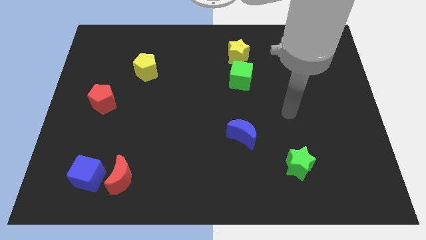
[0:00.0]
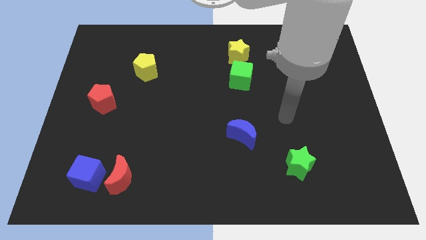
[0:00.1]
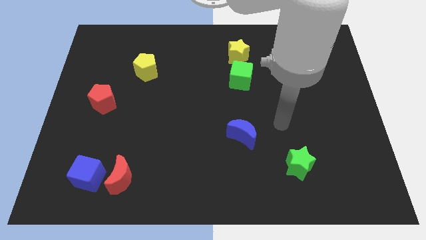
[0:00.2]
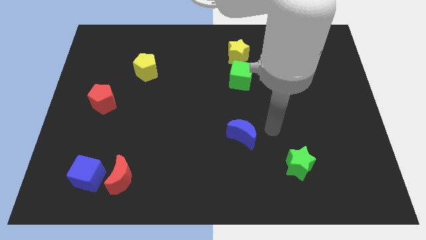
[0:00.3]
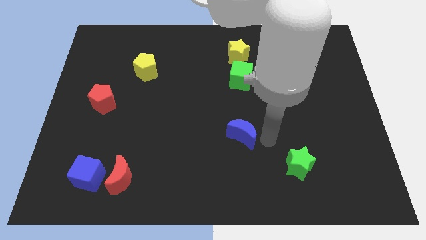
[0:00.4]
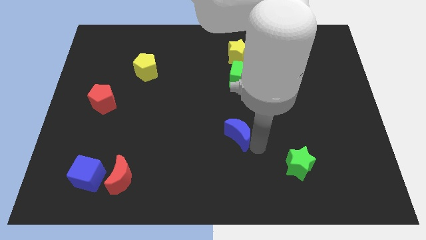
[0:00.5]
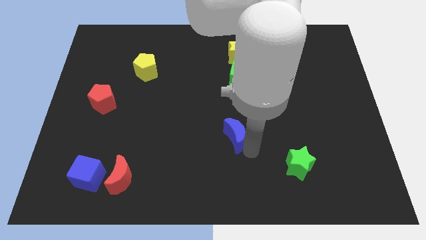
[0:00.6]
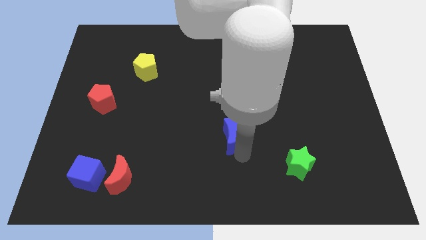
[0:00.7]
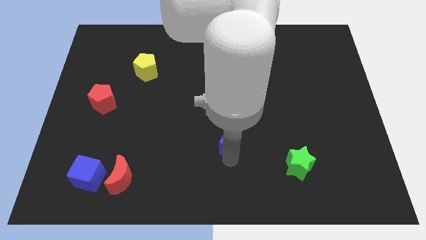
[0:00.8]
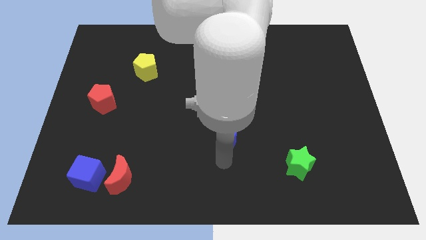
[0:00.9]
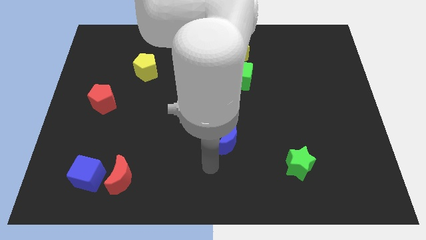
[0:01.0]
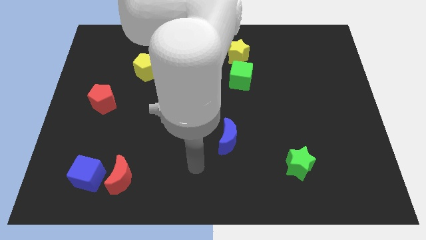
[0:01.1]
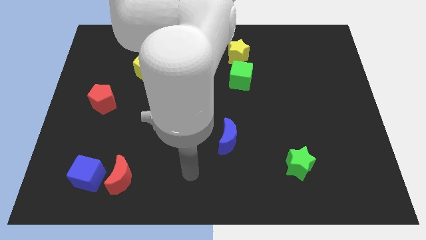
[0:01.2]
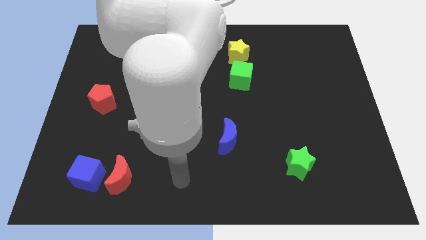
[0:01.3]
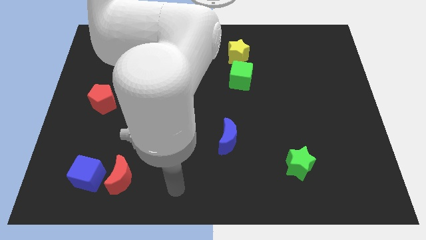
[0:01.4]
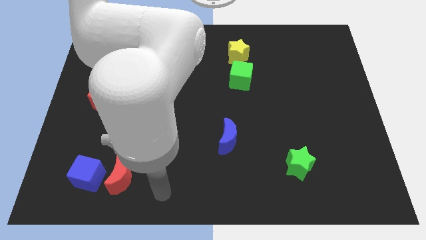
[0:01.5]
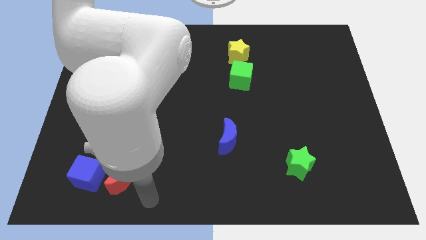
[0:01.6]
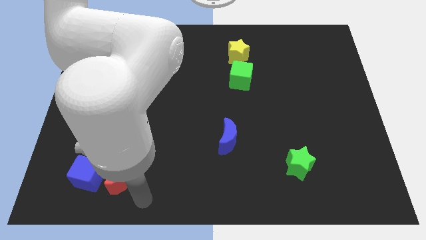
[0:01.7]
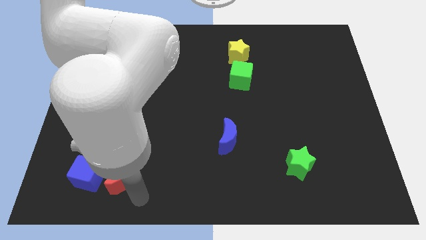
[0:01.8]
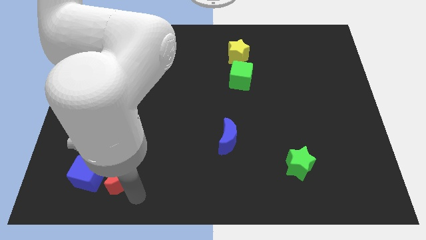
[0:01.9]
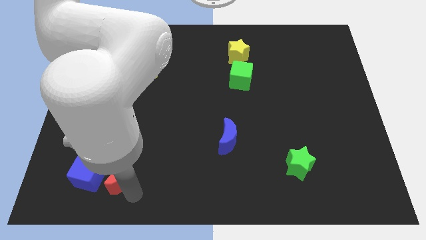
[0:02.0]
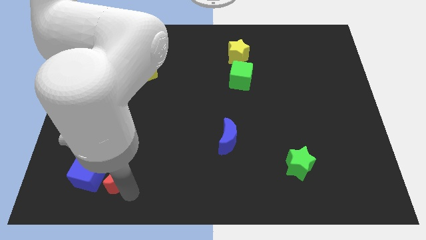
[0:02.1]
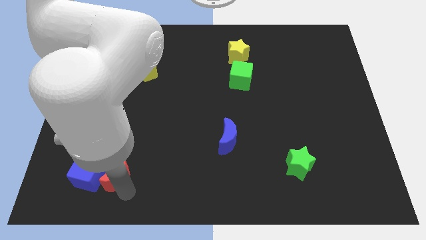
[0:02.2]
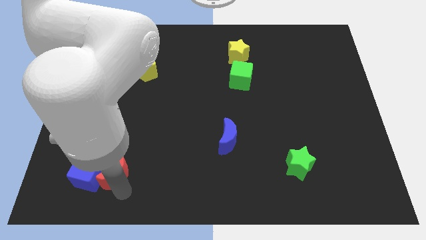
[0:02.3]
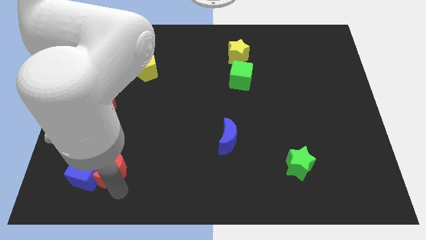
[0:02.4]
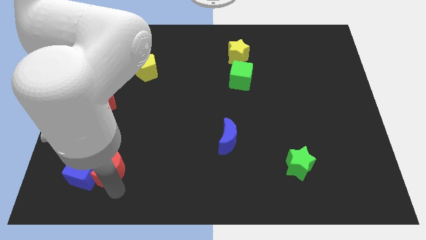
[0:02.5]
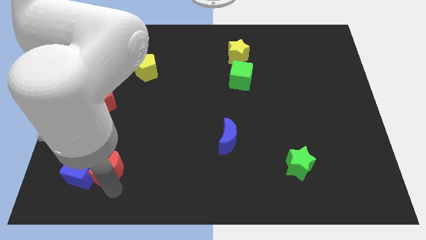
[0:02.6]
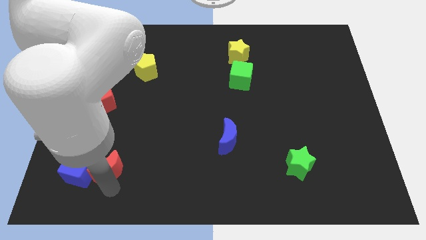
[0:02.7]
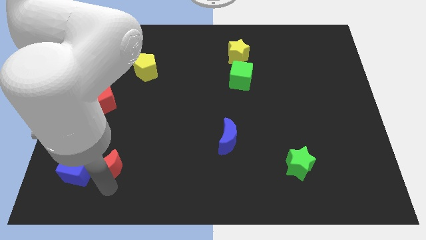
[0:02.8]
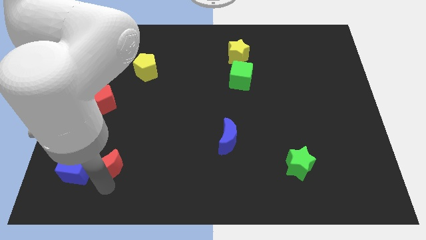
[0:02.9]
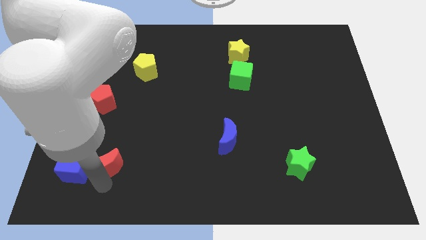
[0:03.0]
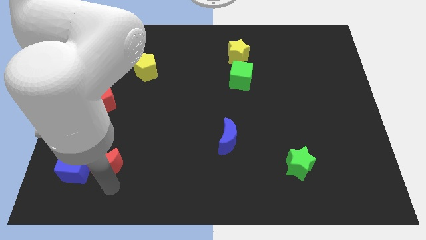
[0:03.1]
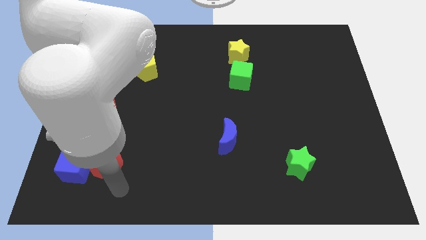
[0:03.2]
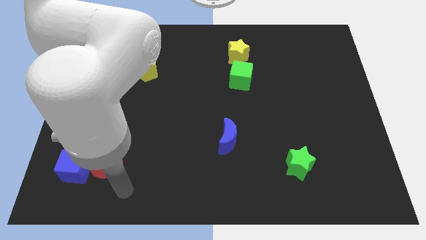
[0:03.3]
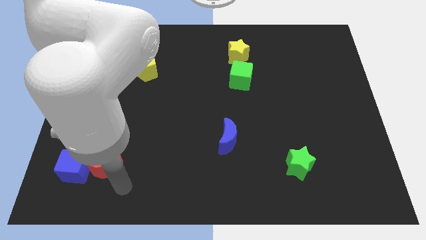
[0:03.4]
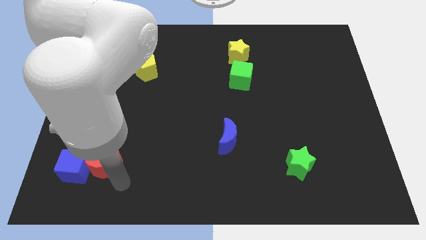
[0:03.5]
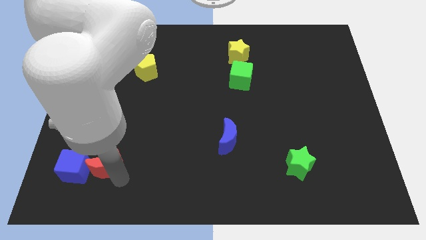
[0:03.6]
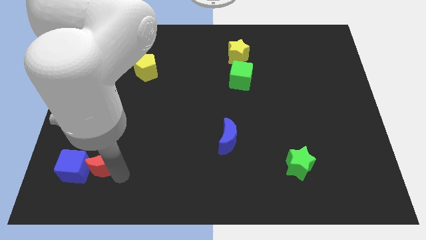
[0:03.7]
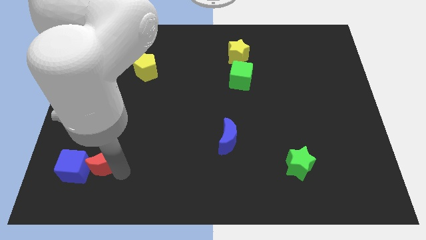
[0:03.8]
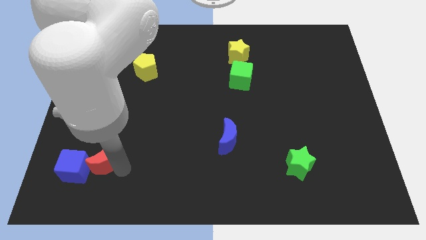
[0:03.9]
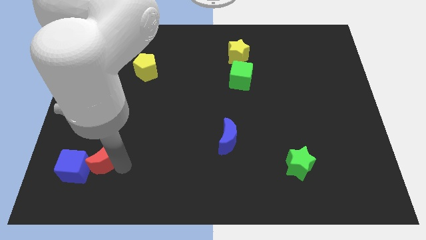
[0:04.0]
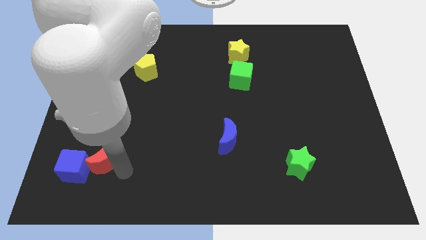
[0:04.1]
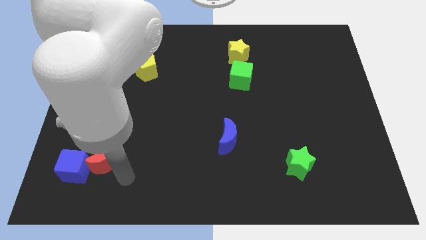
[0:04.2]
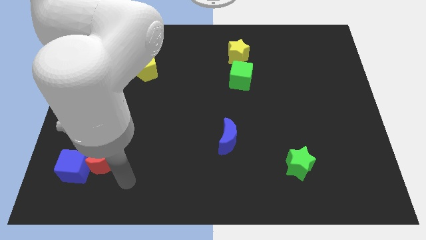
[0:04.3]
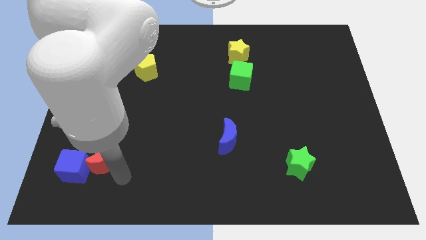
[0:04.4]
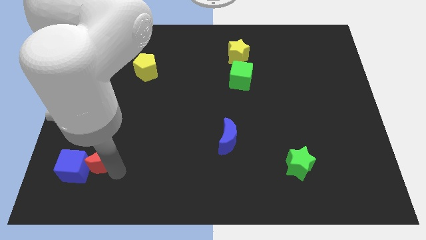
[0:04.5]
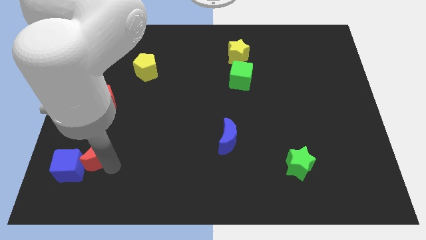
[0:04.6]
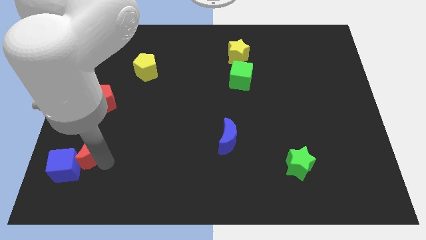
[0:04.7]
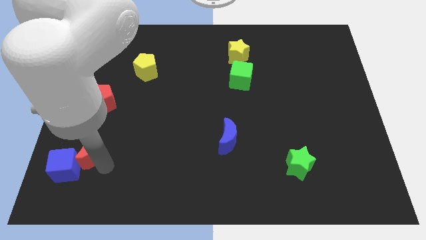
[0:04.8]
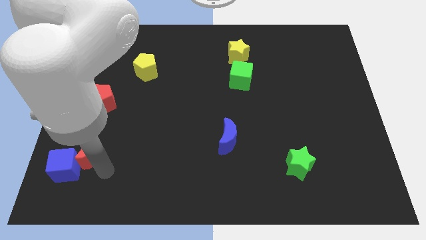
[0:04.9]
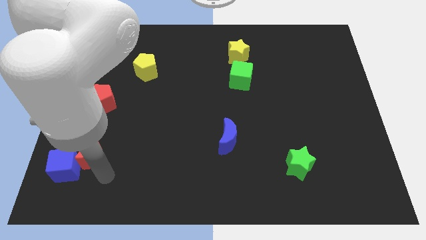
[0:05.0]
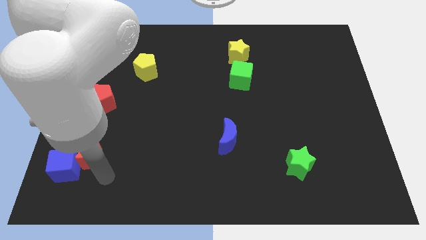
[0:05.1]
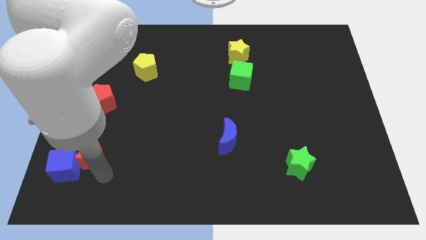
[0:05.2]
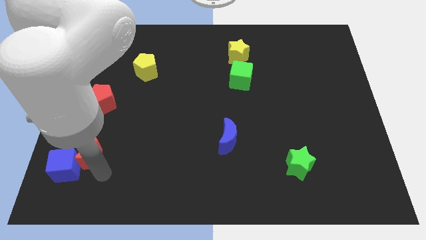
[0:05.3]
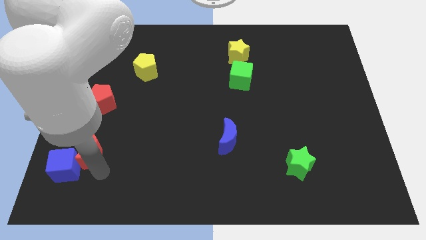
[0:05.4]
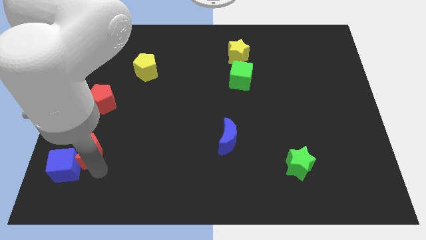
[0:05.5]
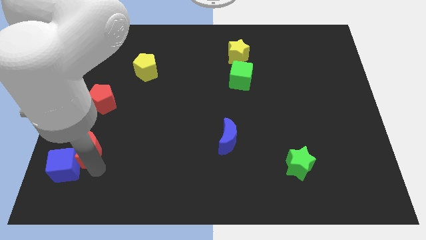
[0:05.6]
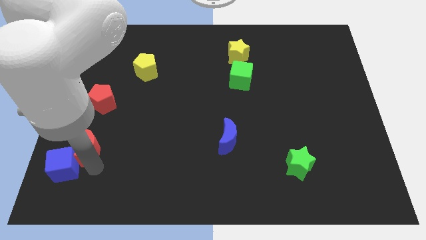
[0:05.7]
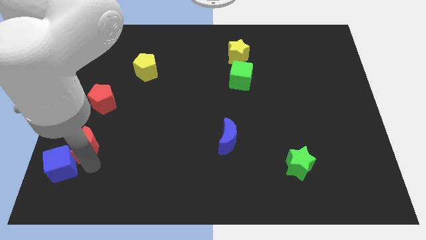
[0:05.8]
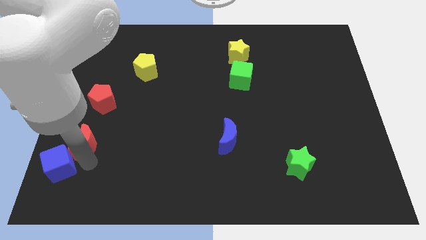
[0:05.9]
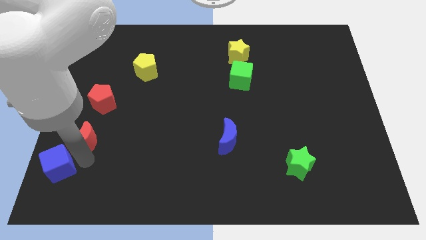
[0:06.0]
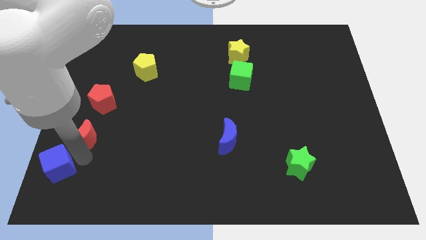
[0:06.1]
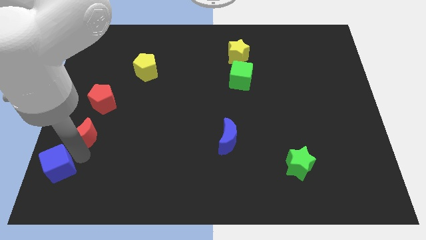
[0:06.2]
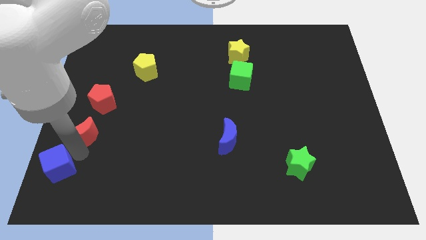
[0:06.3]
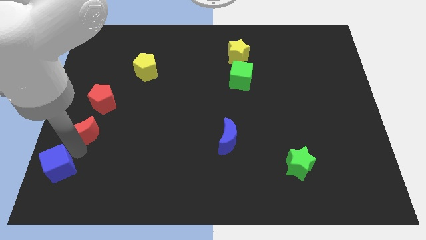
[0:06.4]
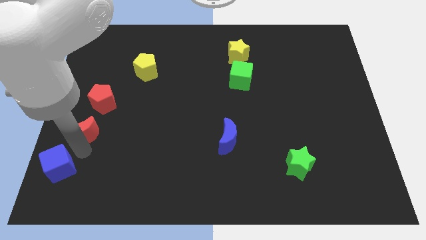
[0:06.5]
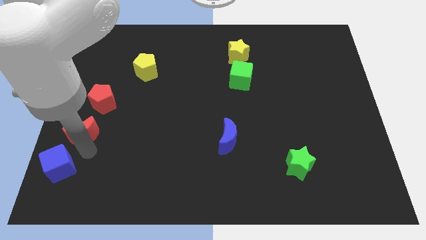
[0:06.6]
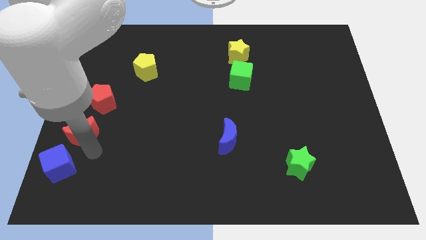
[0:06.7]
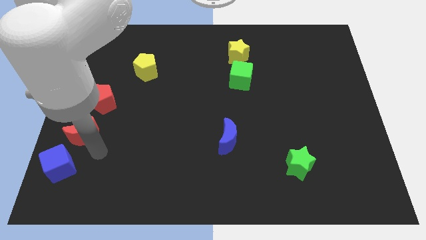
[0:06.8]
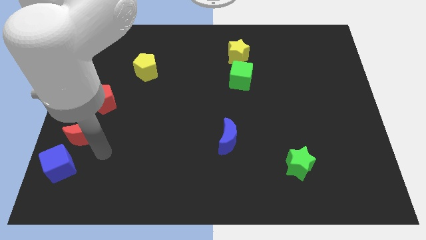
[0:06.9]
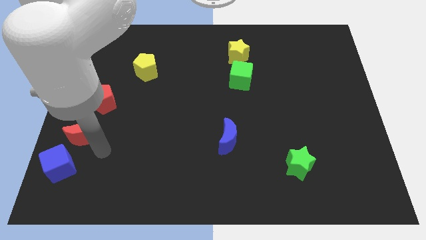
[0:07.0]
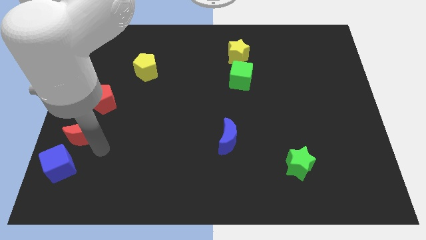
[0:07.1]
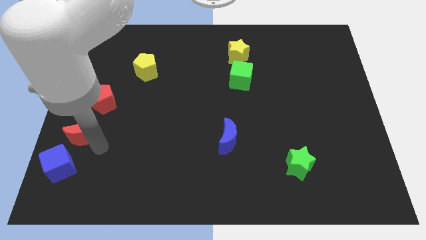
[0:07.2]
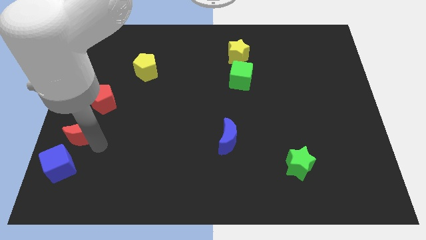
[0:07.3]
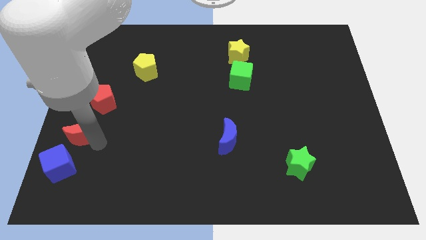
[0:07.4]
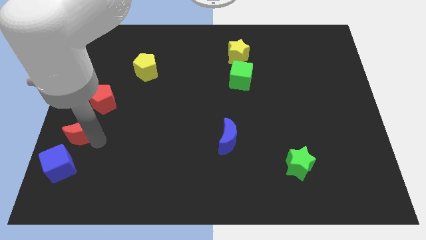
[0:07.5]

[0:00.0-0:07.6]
slide the red moon to the center left
